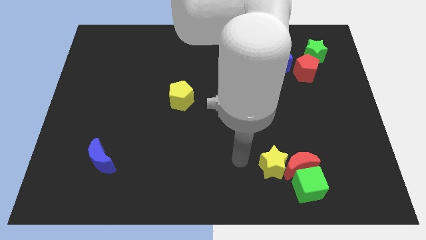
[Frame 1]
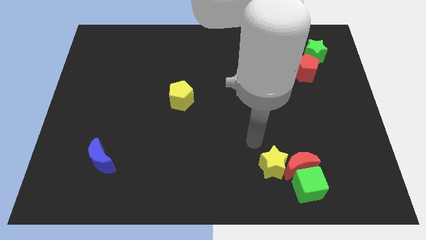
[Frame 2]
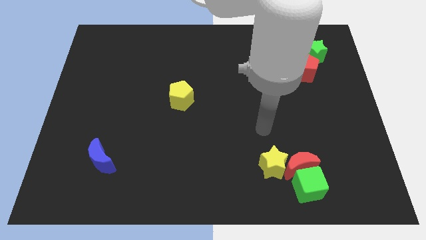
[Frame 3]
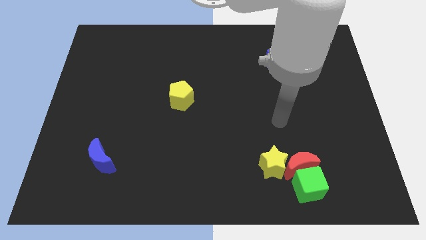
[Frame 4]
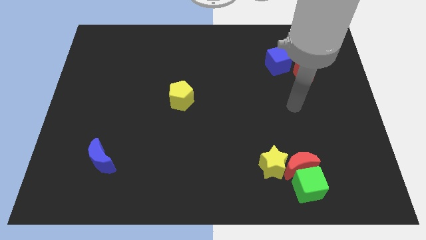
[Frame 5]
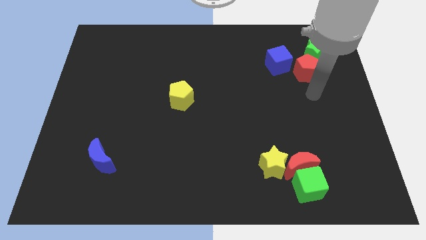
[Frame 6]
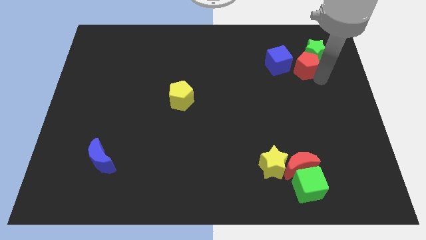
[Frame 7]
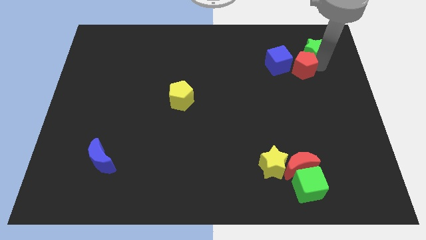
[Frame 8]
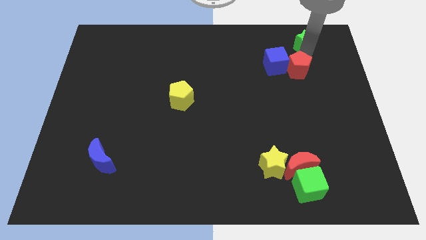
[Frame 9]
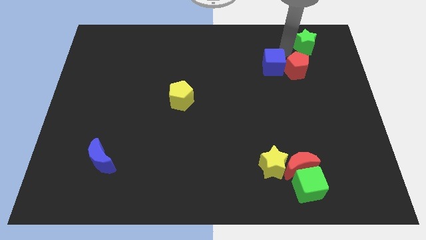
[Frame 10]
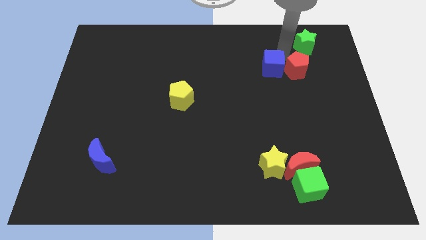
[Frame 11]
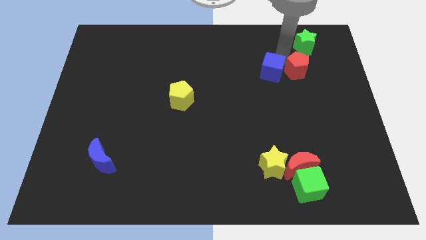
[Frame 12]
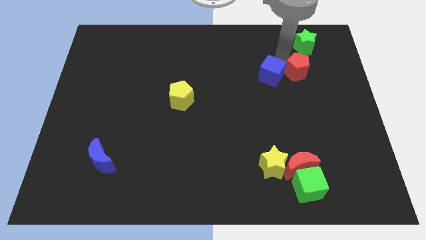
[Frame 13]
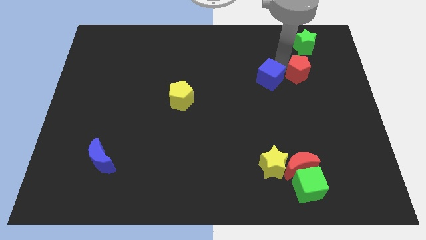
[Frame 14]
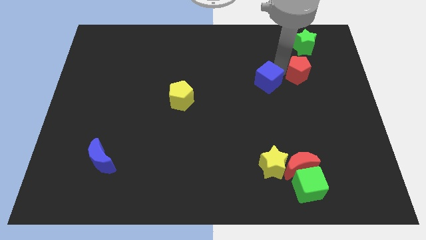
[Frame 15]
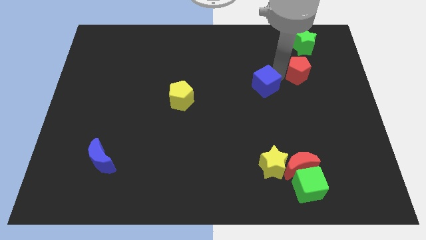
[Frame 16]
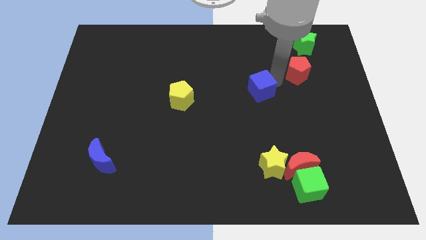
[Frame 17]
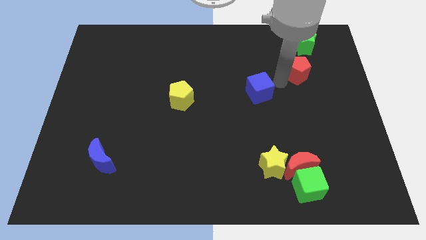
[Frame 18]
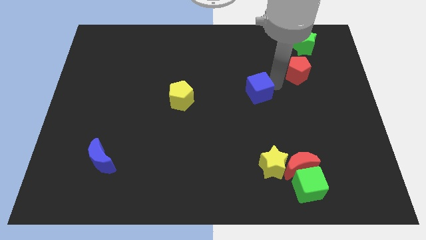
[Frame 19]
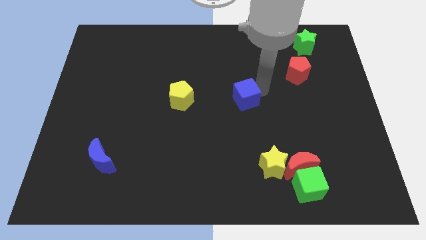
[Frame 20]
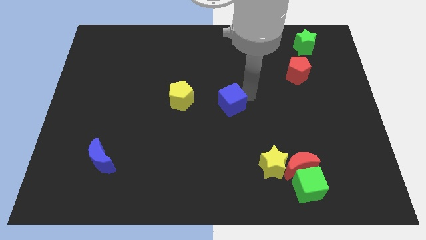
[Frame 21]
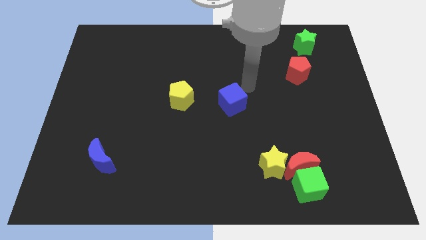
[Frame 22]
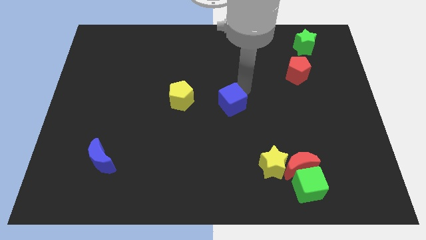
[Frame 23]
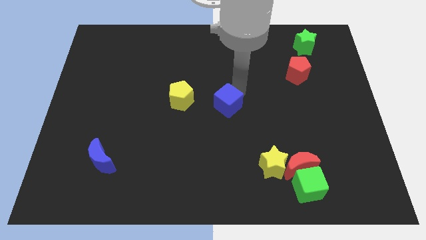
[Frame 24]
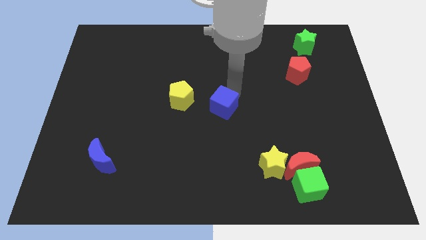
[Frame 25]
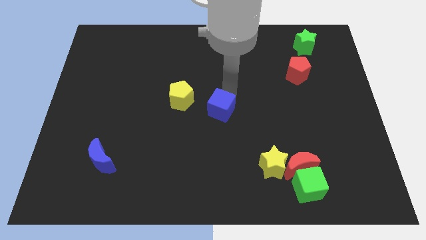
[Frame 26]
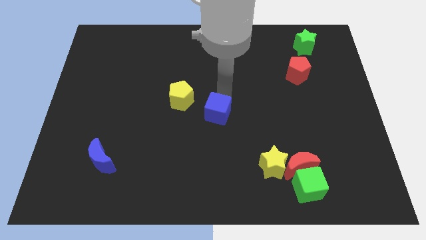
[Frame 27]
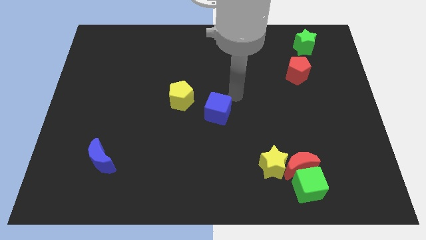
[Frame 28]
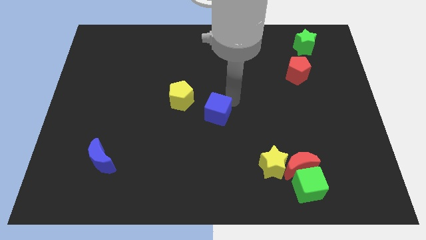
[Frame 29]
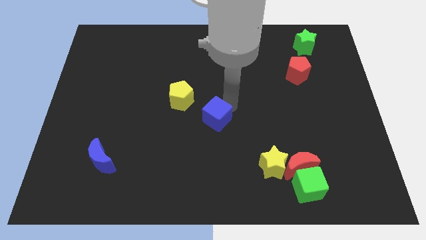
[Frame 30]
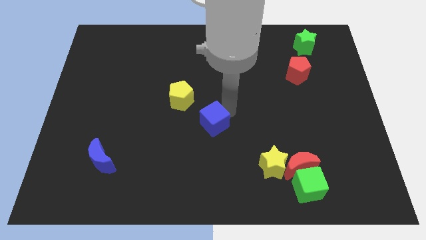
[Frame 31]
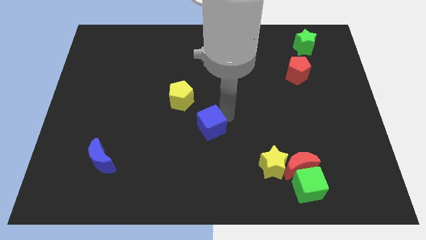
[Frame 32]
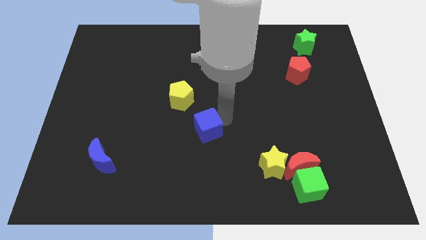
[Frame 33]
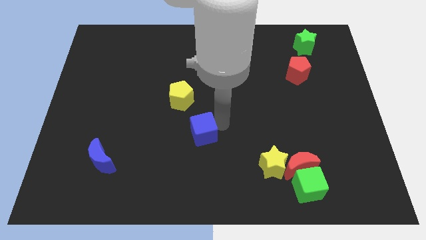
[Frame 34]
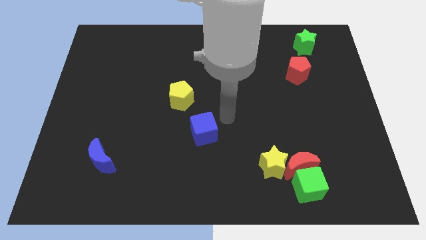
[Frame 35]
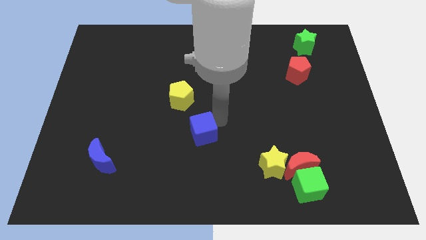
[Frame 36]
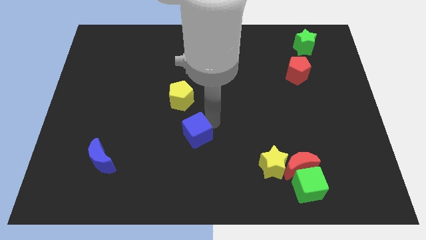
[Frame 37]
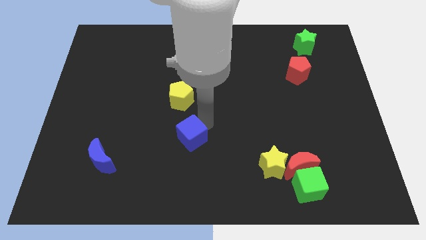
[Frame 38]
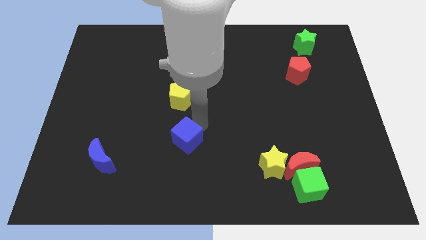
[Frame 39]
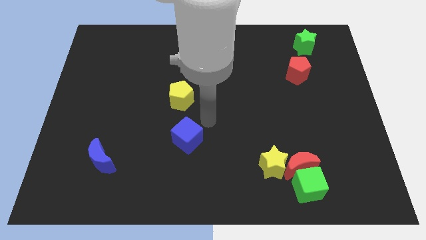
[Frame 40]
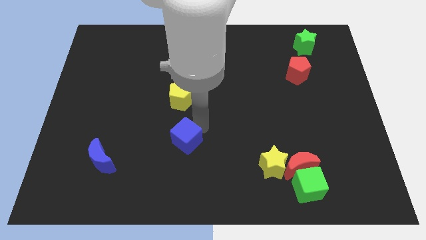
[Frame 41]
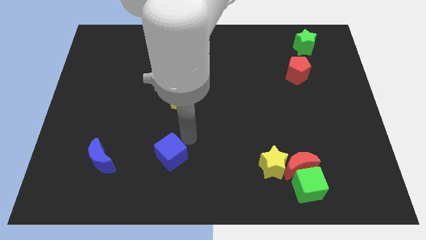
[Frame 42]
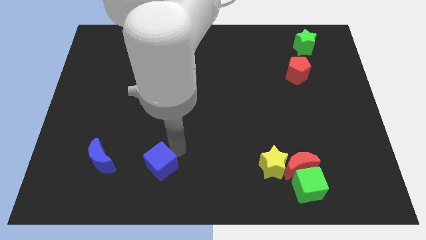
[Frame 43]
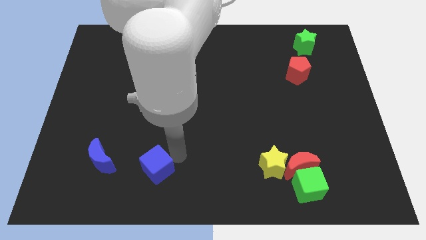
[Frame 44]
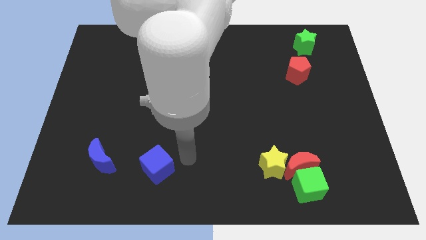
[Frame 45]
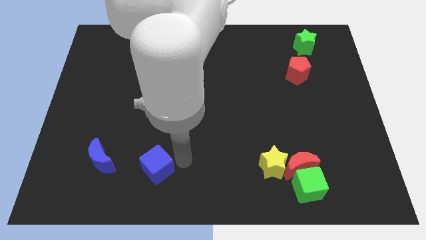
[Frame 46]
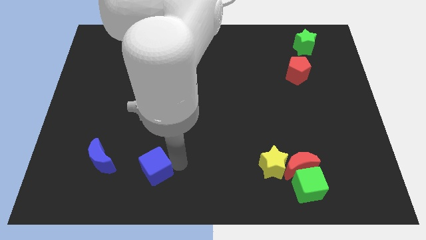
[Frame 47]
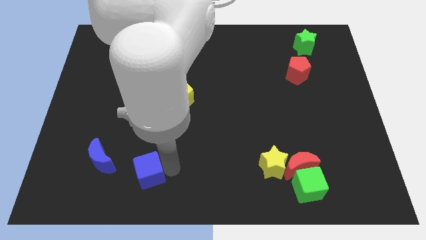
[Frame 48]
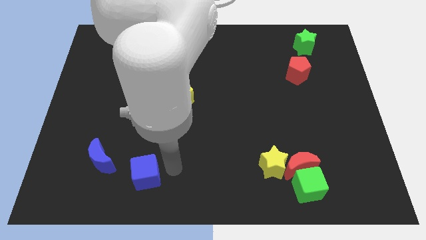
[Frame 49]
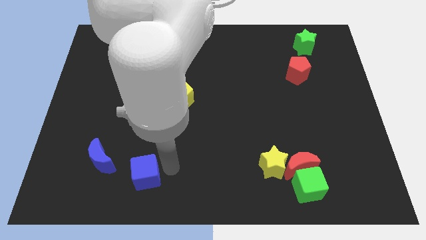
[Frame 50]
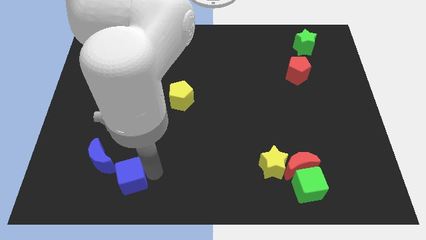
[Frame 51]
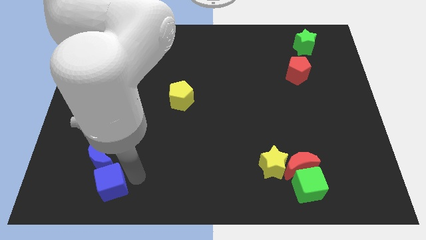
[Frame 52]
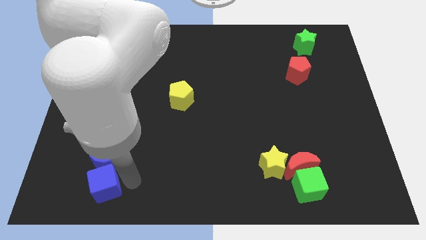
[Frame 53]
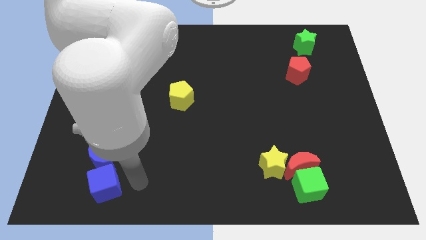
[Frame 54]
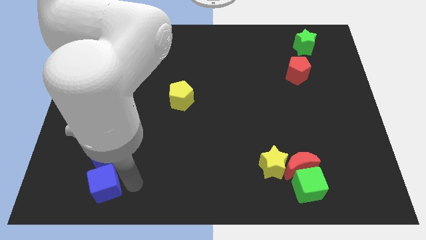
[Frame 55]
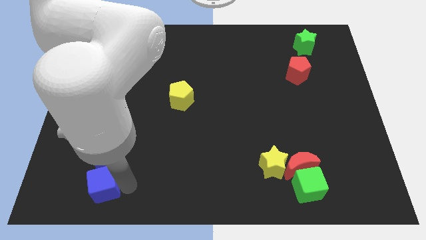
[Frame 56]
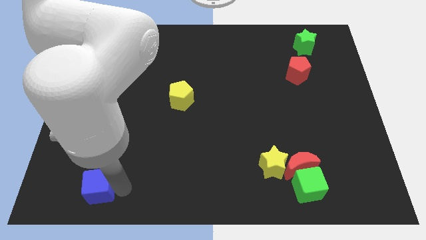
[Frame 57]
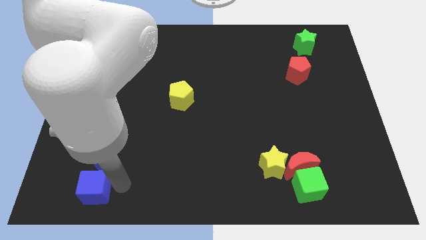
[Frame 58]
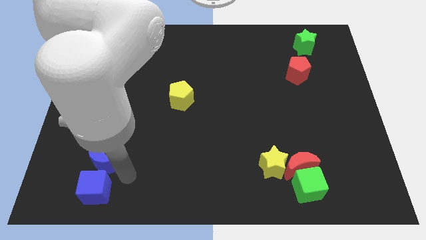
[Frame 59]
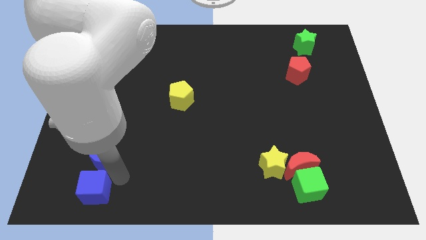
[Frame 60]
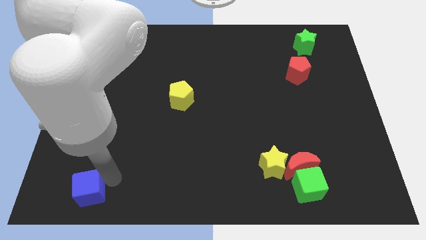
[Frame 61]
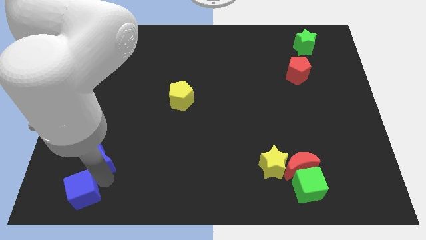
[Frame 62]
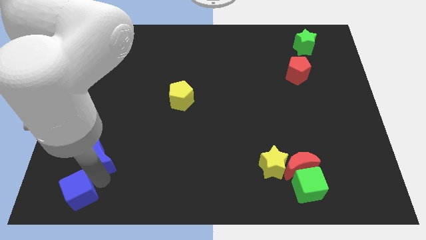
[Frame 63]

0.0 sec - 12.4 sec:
move the blue cube to the lower left corner

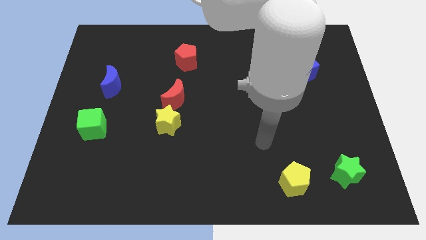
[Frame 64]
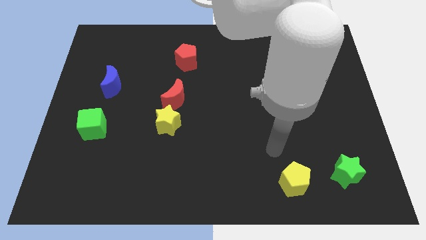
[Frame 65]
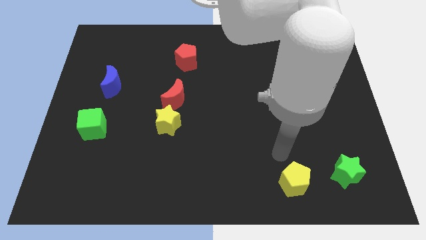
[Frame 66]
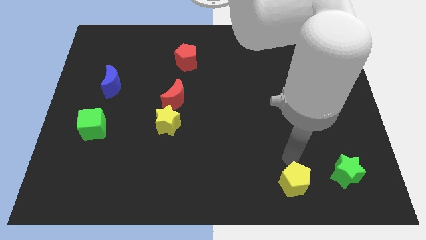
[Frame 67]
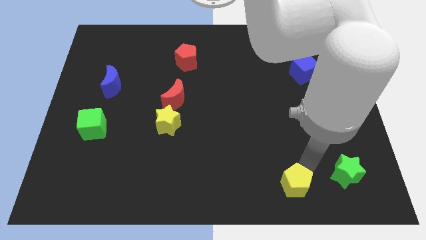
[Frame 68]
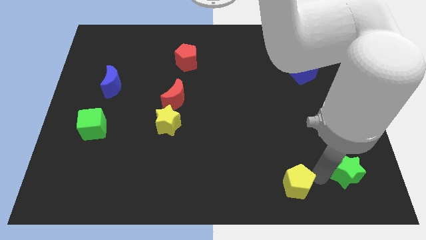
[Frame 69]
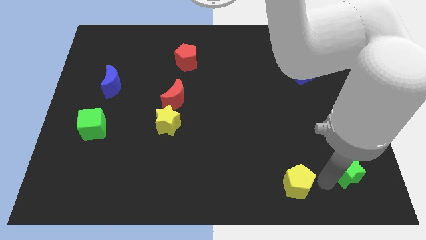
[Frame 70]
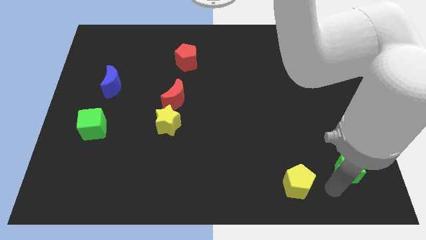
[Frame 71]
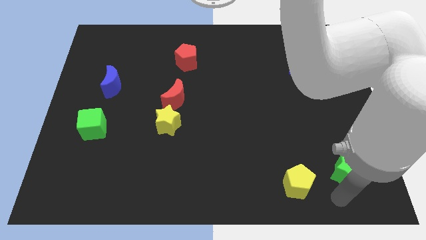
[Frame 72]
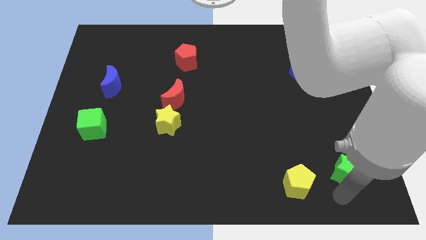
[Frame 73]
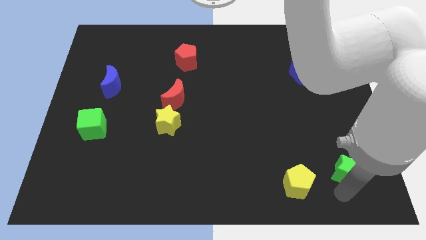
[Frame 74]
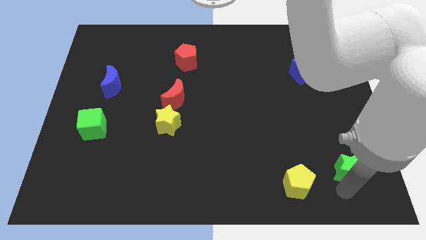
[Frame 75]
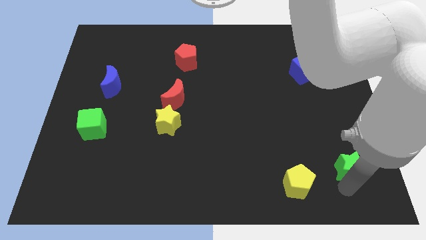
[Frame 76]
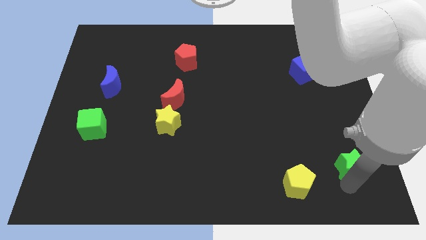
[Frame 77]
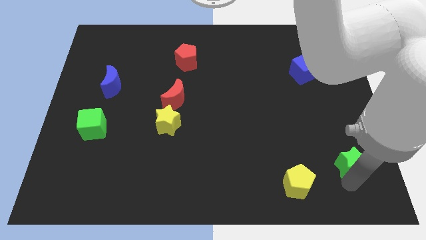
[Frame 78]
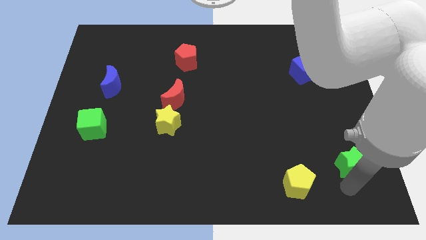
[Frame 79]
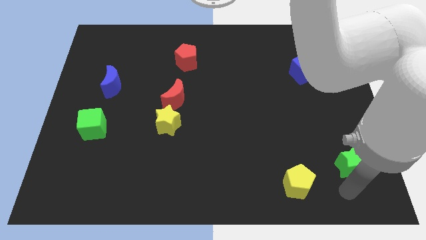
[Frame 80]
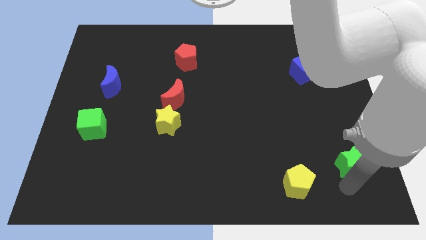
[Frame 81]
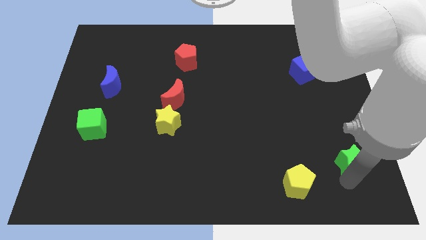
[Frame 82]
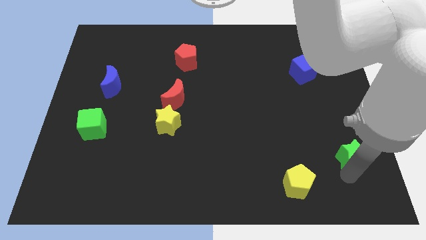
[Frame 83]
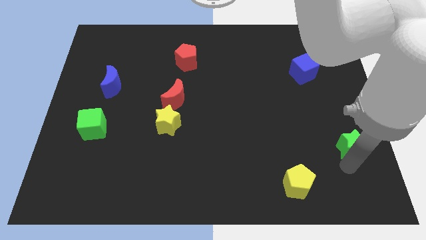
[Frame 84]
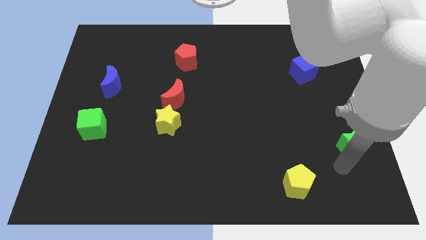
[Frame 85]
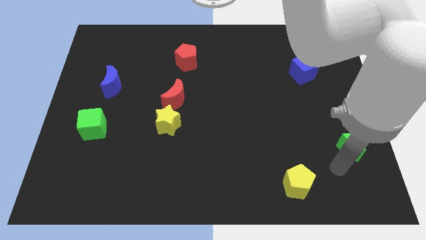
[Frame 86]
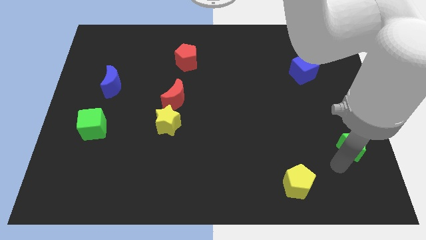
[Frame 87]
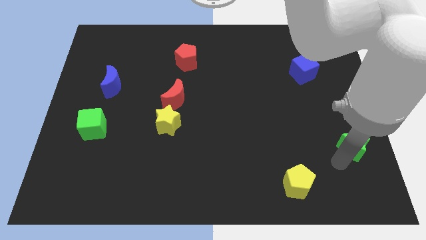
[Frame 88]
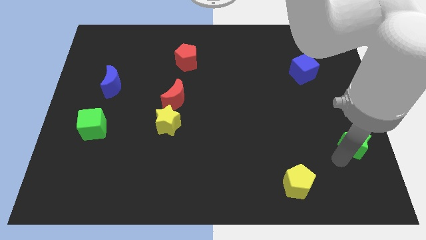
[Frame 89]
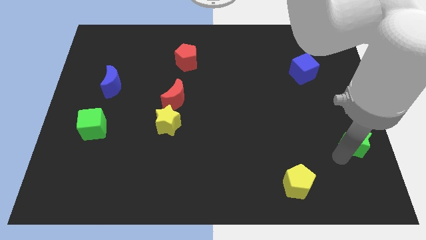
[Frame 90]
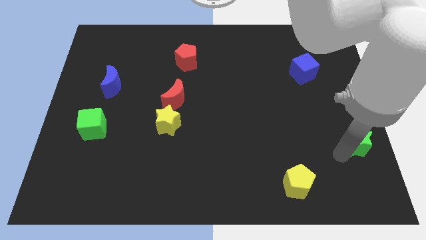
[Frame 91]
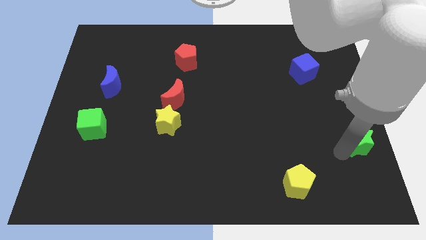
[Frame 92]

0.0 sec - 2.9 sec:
put the green star to the center right
